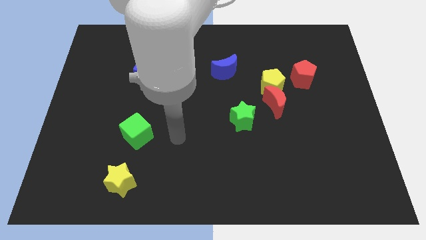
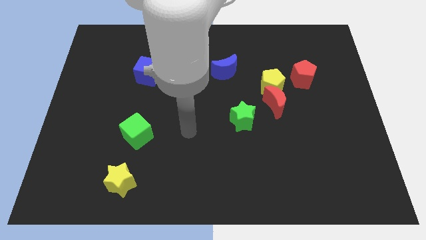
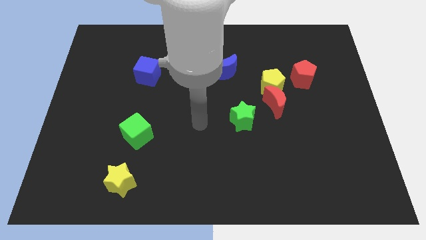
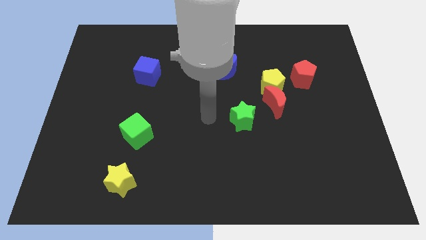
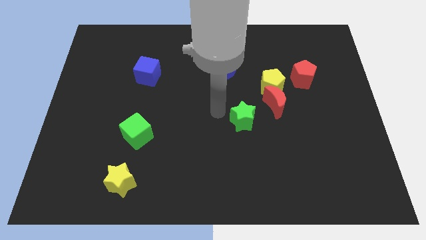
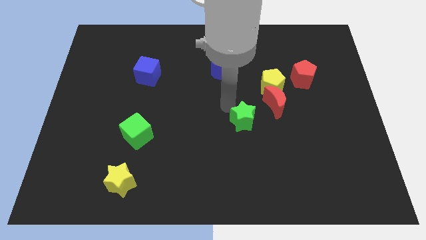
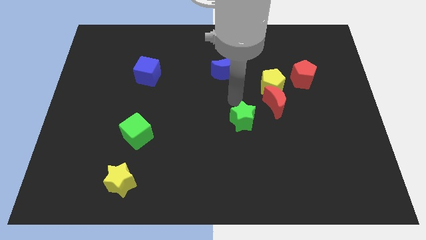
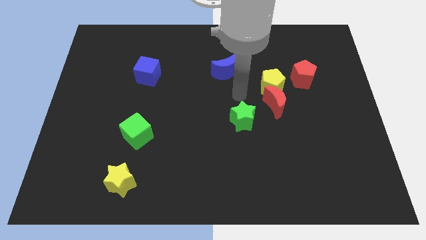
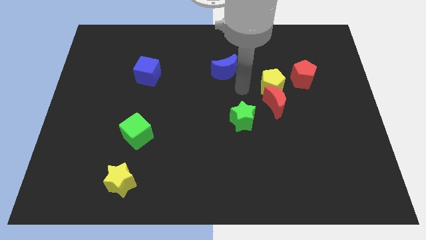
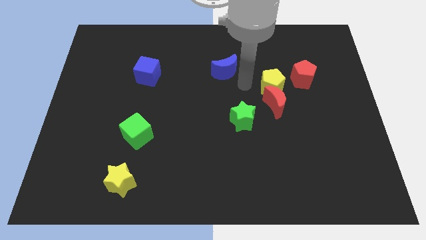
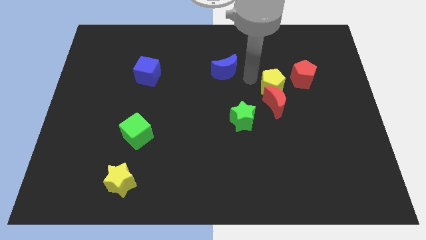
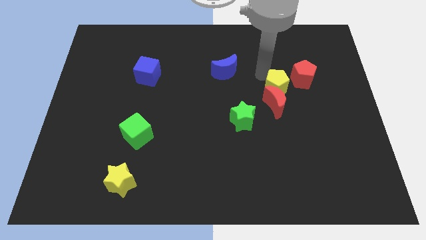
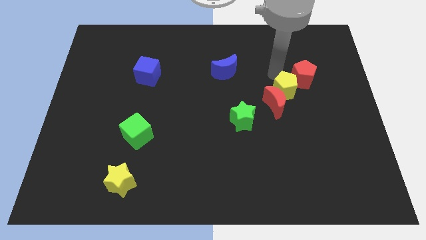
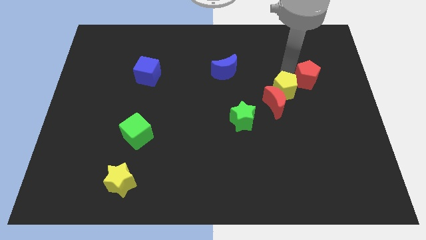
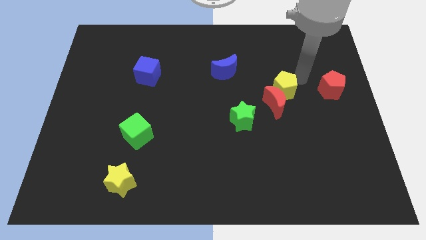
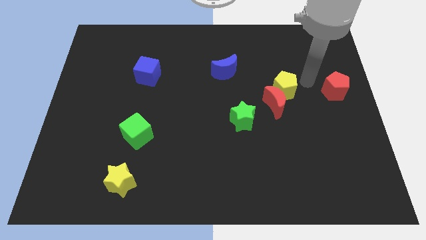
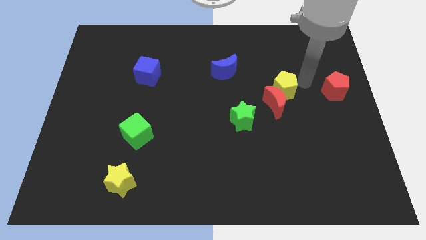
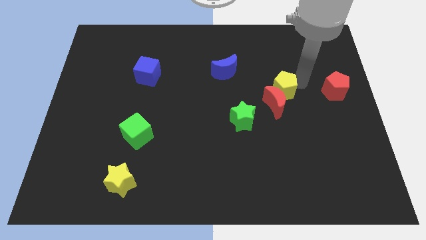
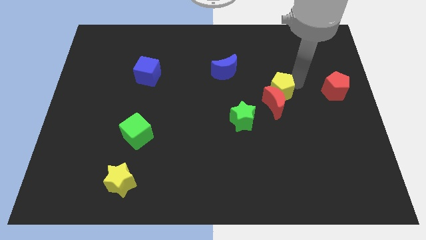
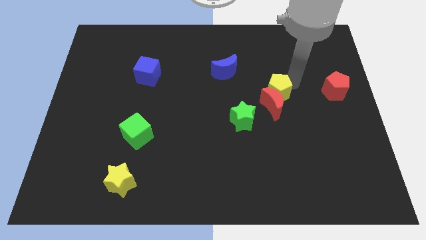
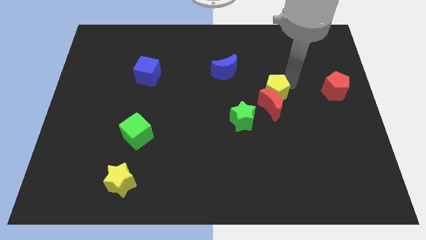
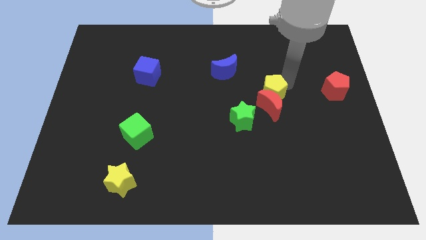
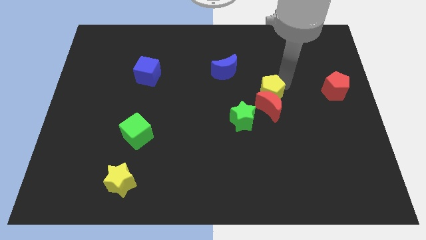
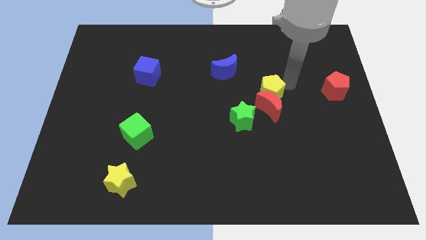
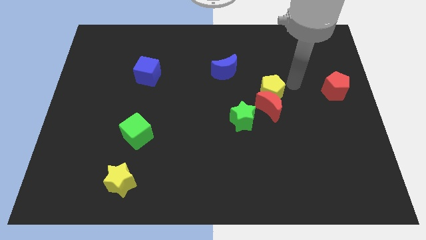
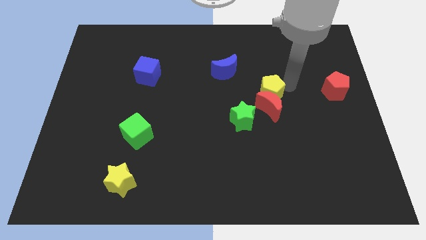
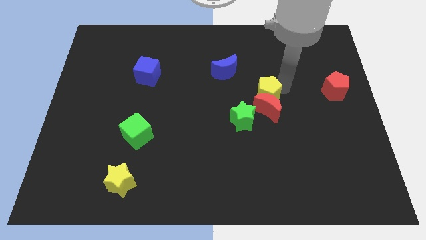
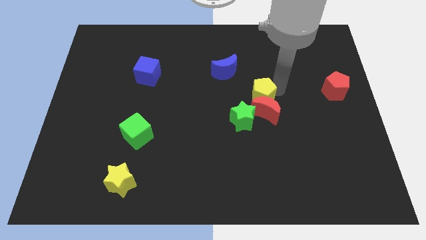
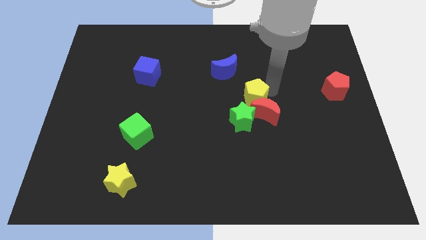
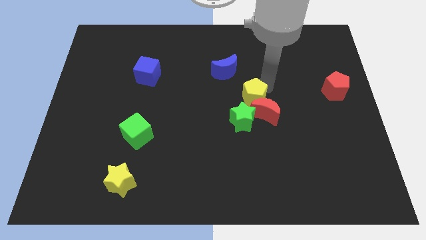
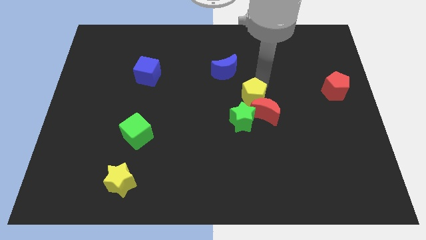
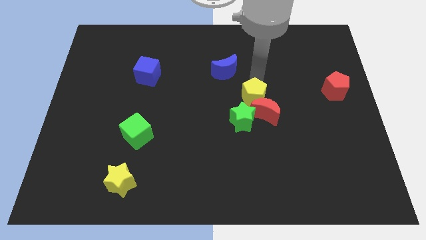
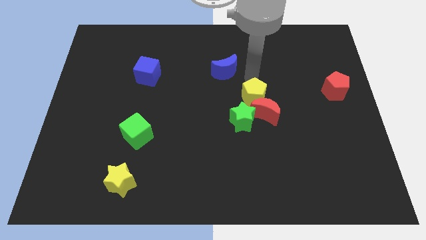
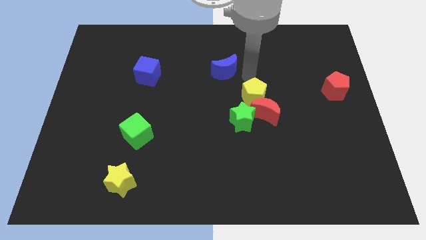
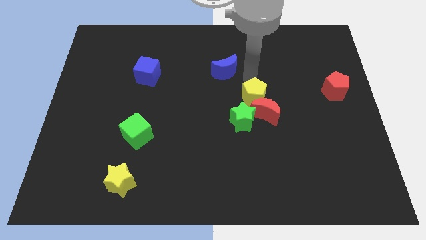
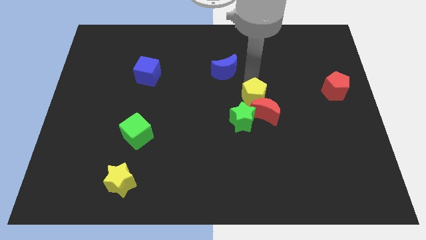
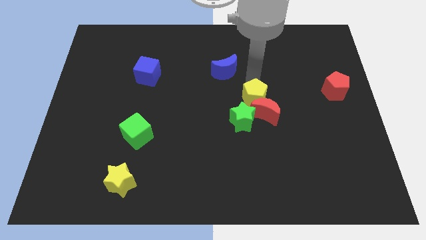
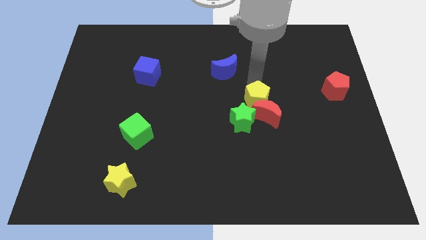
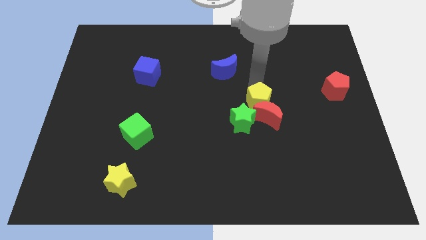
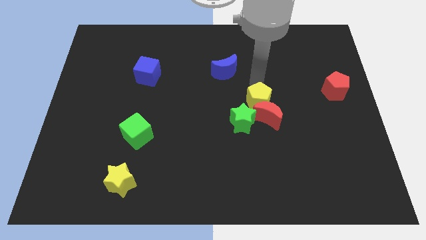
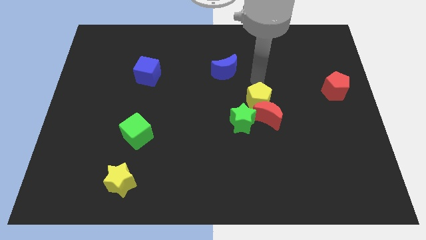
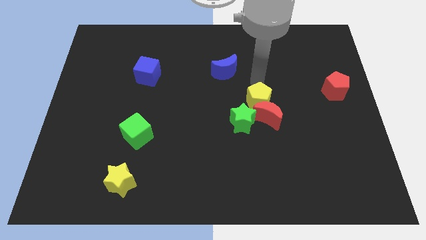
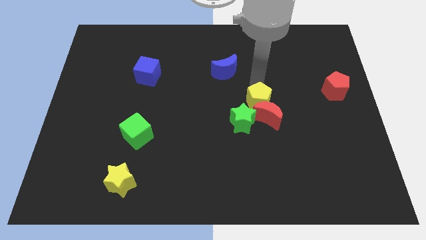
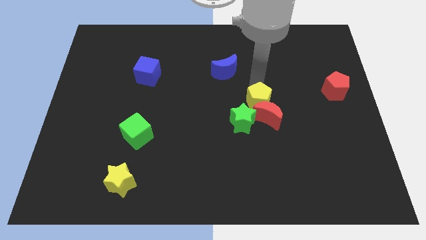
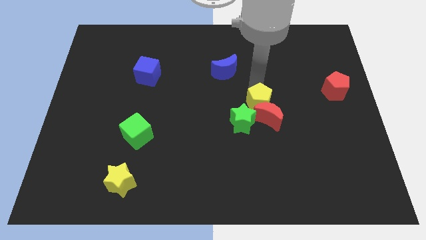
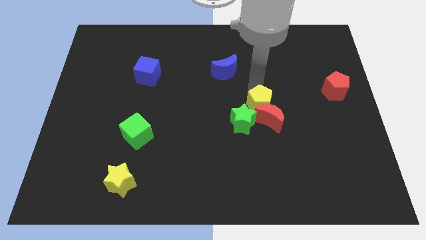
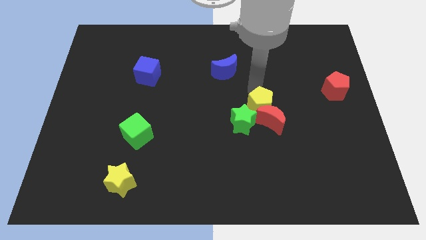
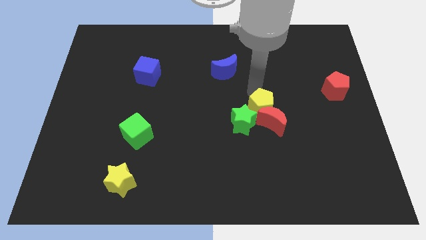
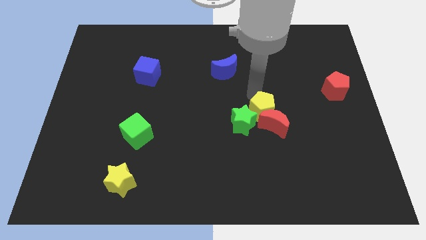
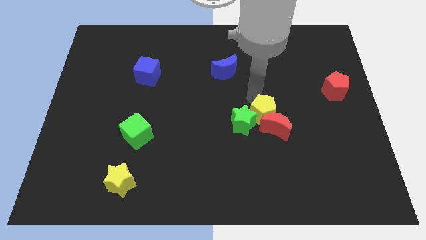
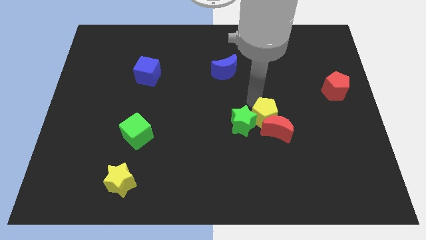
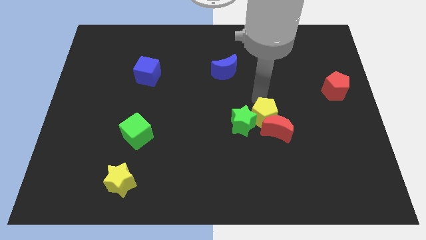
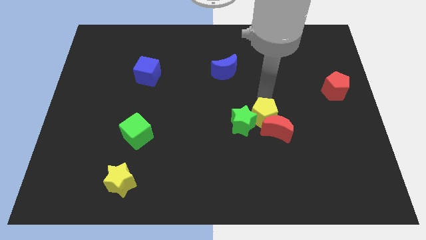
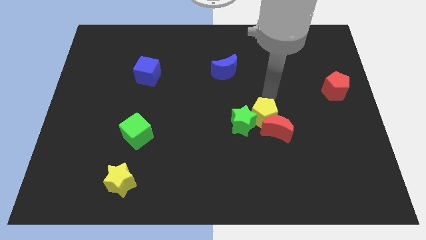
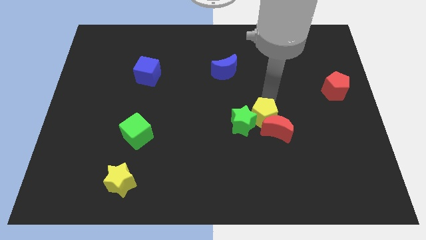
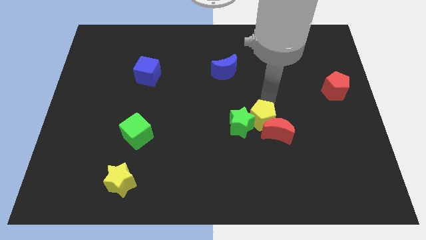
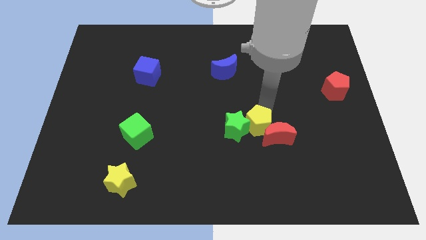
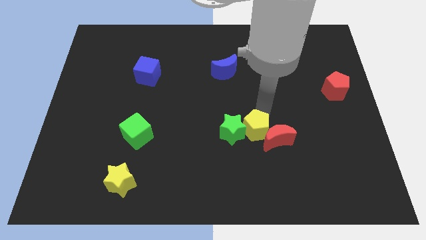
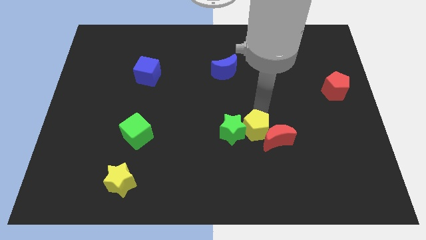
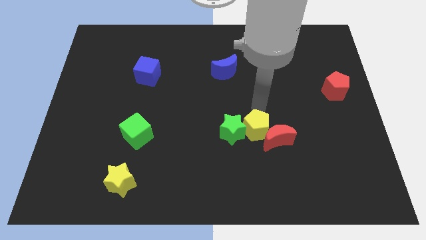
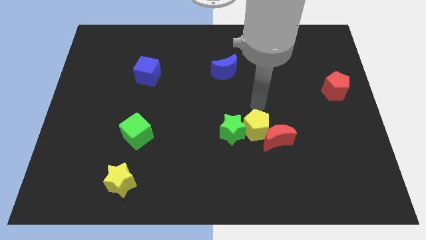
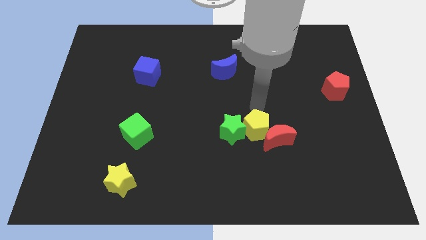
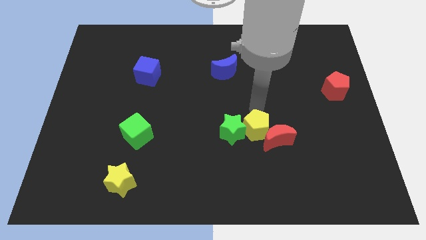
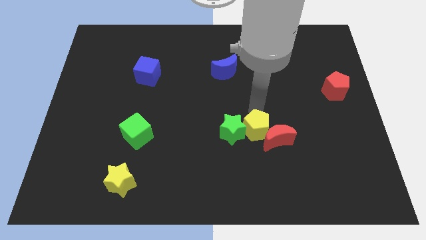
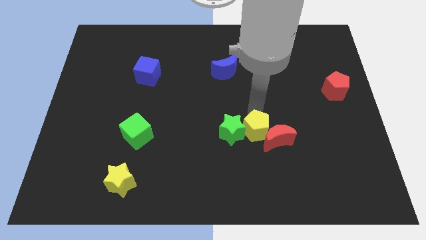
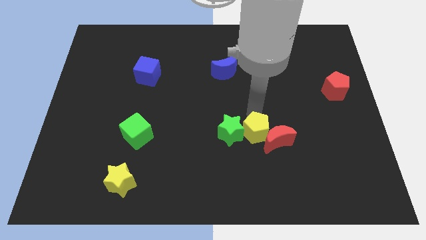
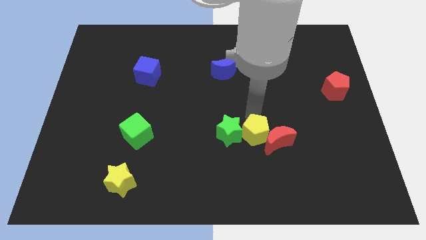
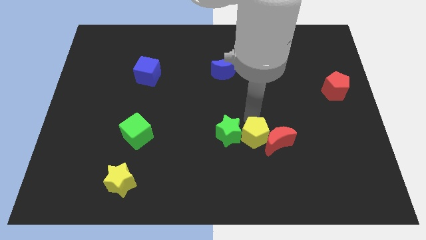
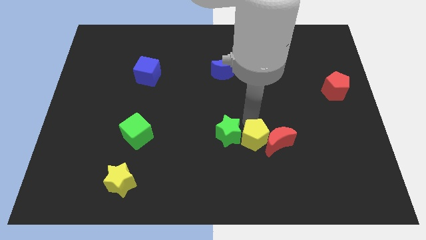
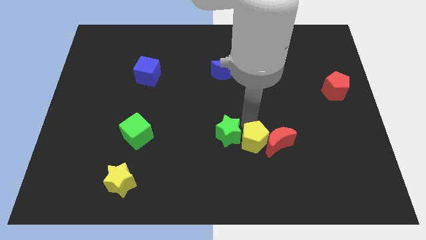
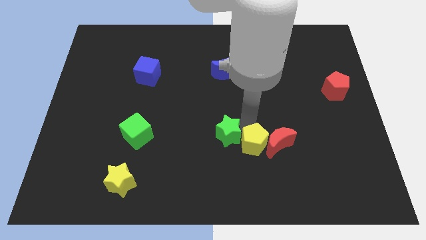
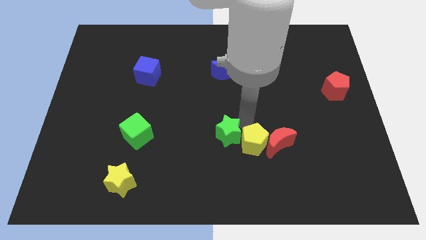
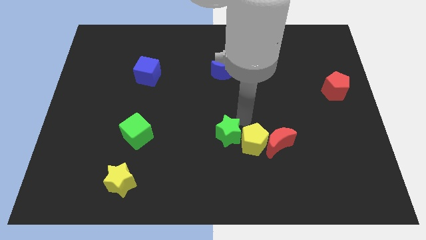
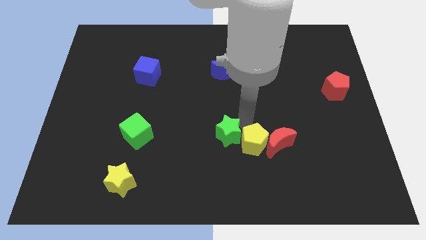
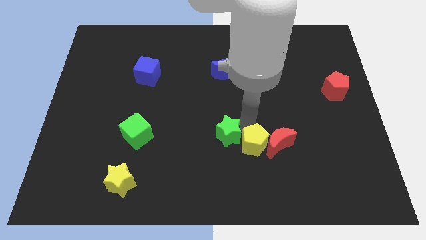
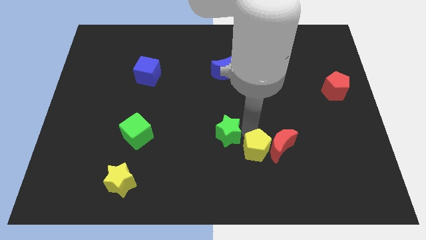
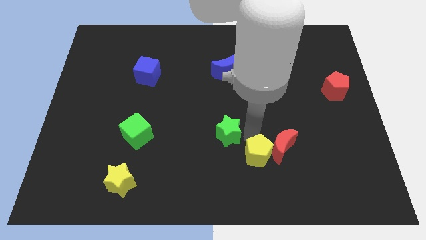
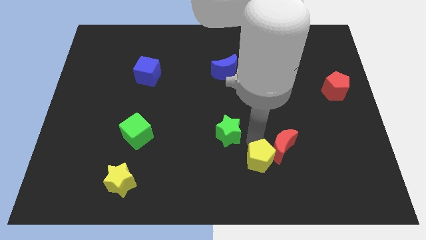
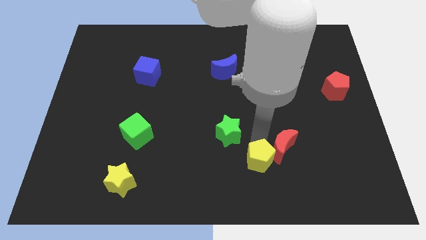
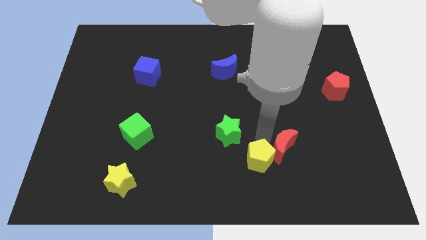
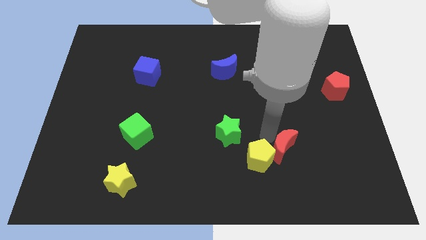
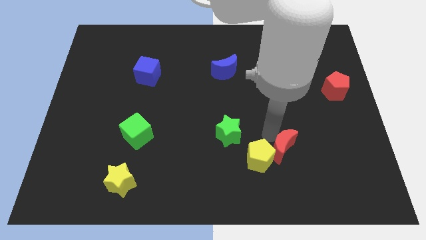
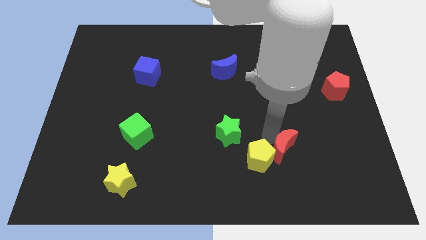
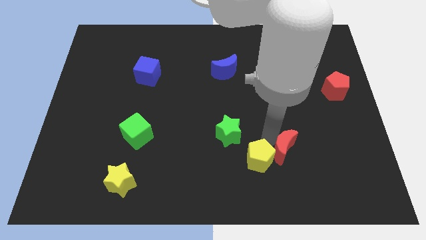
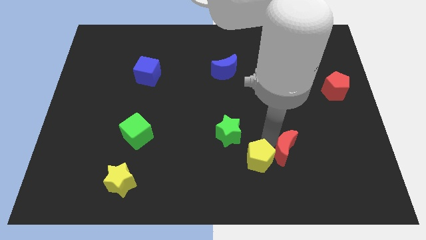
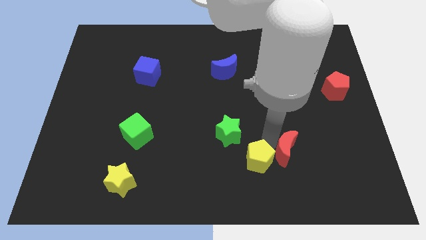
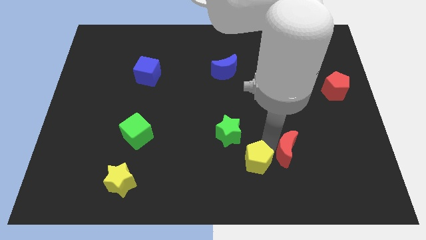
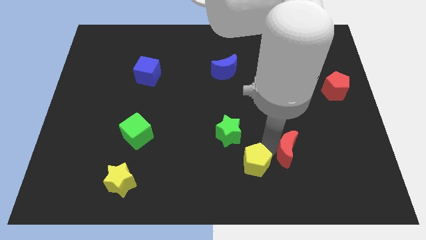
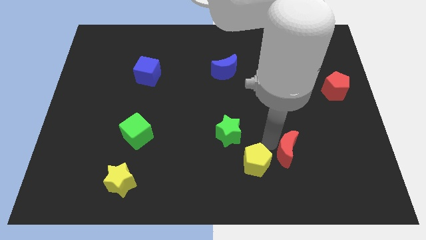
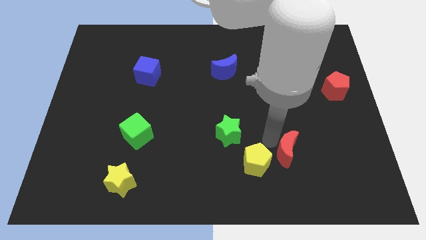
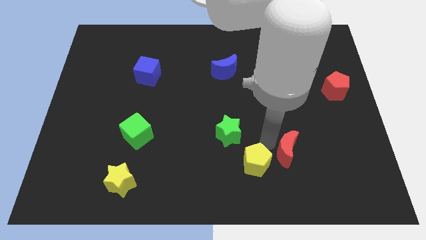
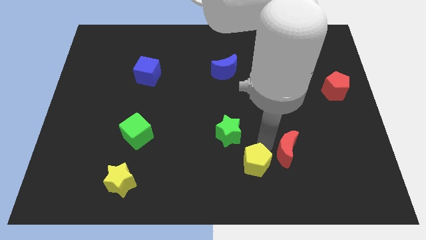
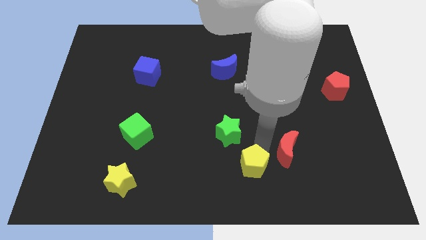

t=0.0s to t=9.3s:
move the yellow pentagon to the bottom side
